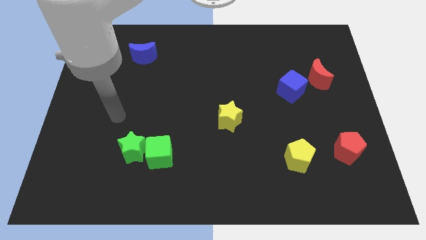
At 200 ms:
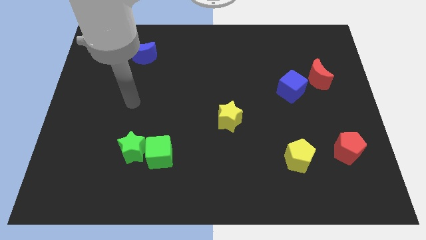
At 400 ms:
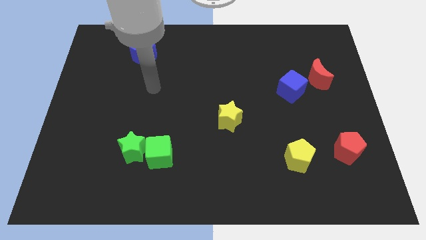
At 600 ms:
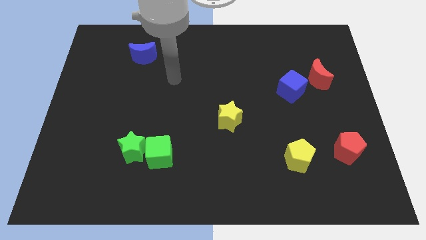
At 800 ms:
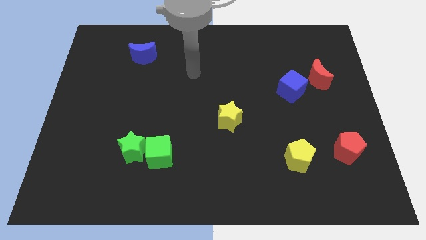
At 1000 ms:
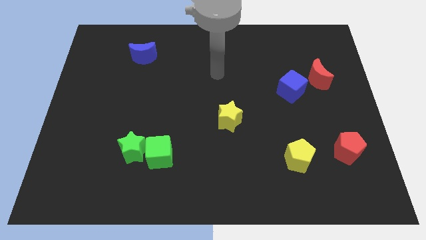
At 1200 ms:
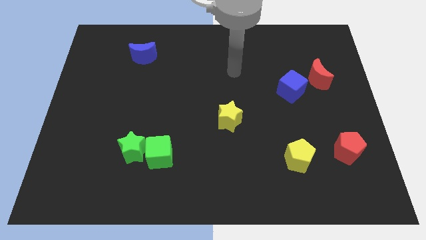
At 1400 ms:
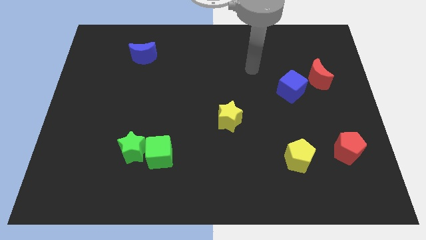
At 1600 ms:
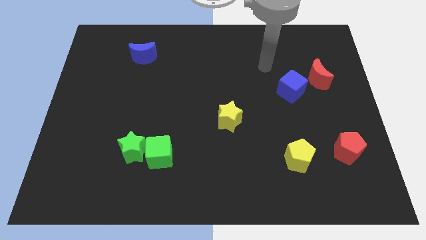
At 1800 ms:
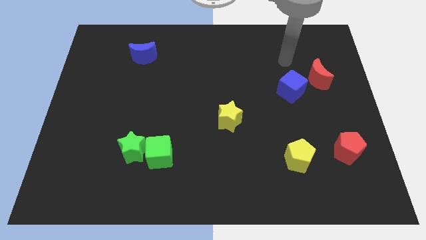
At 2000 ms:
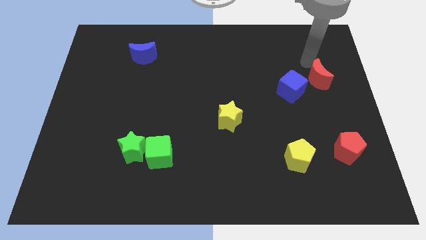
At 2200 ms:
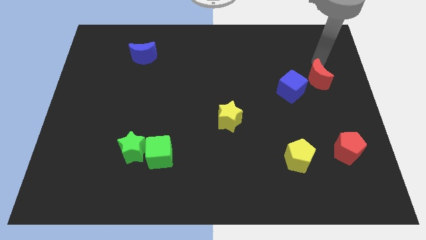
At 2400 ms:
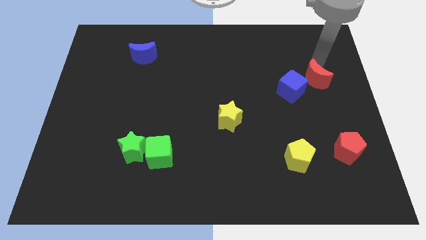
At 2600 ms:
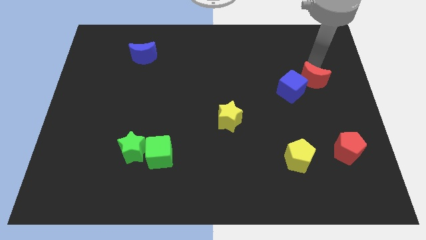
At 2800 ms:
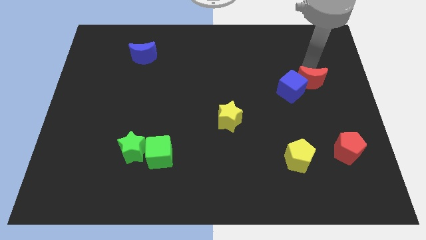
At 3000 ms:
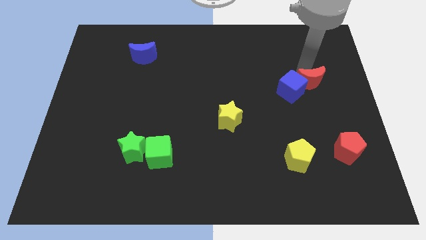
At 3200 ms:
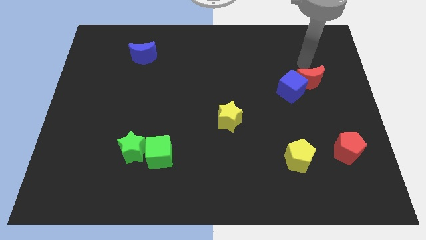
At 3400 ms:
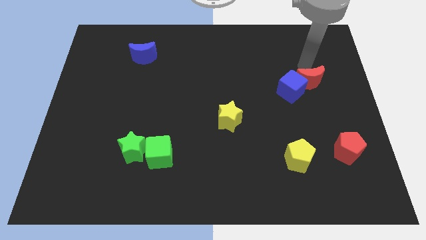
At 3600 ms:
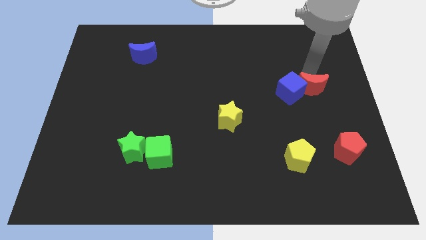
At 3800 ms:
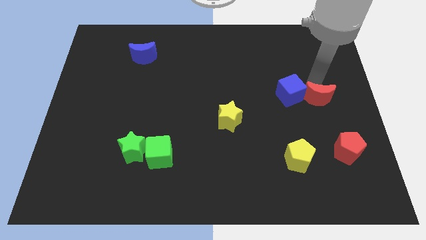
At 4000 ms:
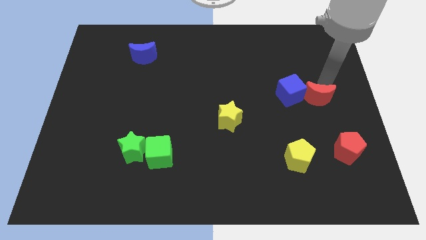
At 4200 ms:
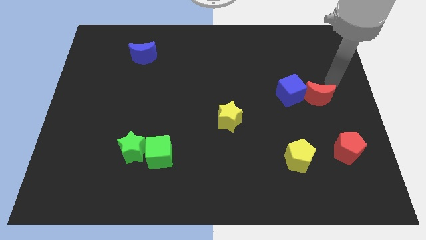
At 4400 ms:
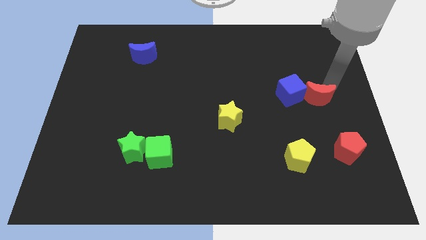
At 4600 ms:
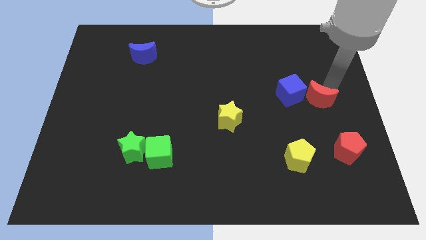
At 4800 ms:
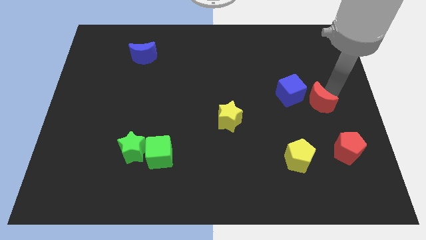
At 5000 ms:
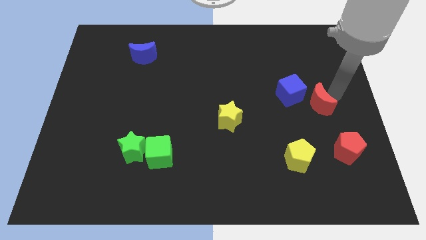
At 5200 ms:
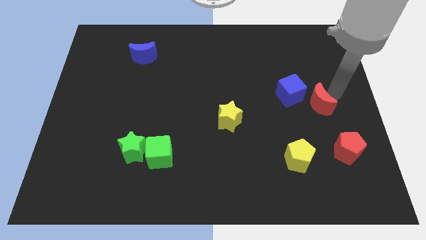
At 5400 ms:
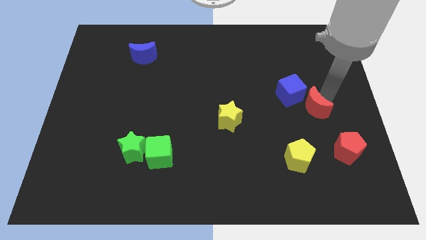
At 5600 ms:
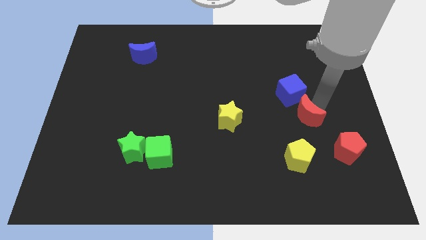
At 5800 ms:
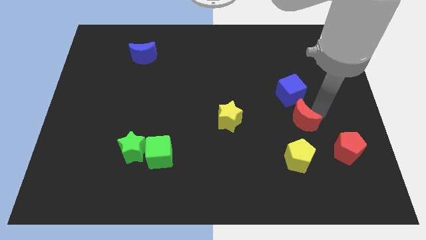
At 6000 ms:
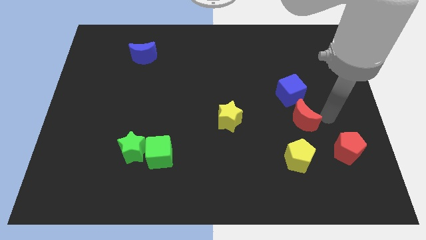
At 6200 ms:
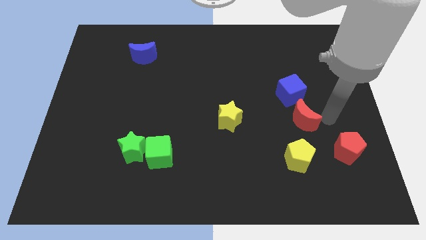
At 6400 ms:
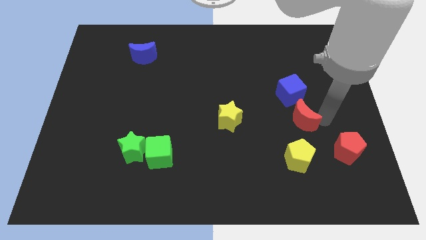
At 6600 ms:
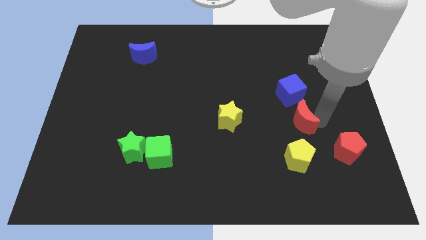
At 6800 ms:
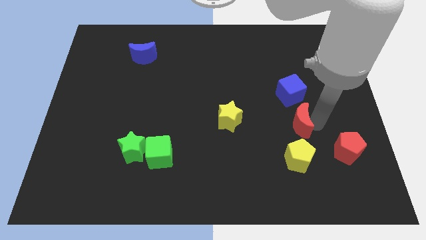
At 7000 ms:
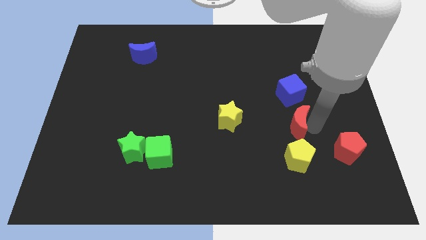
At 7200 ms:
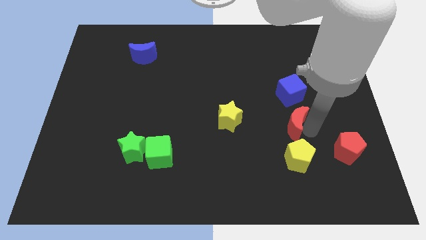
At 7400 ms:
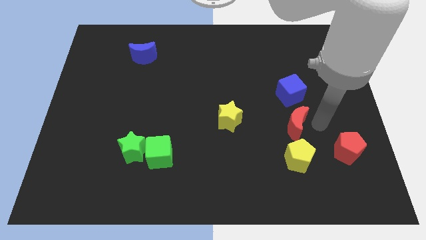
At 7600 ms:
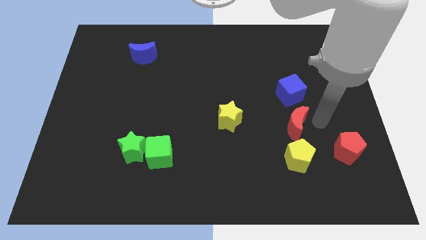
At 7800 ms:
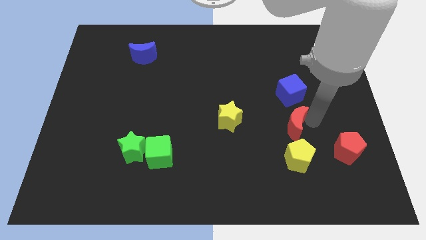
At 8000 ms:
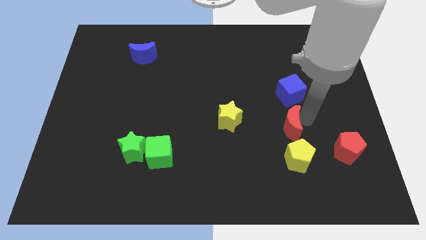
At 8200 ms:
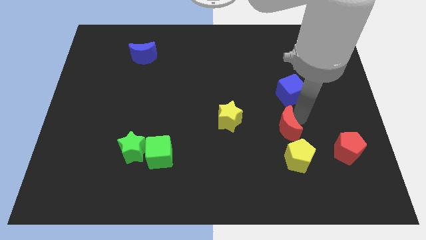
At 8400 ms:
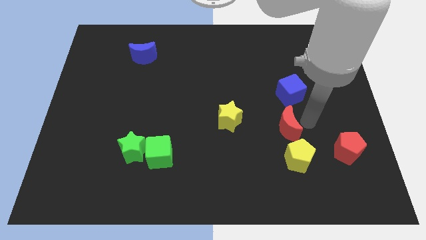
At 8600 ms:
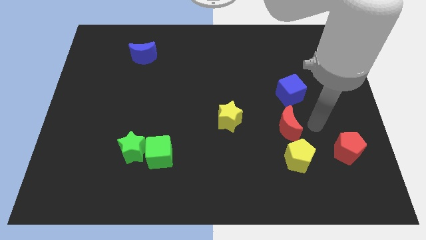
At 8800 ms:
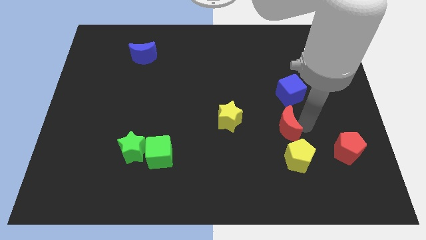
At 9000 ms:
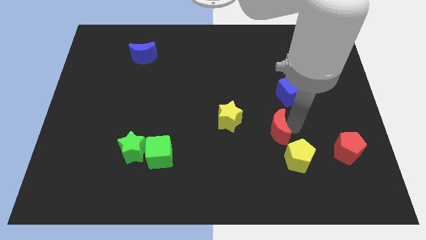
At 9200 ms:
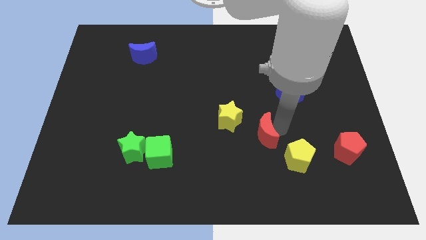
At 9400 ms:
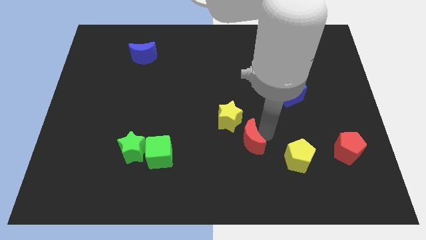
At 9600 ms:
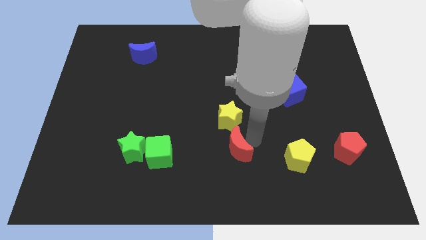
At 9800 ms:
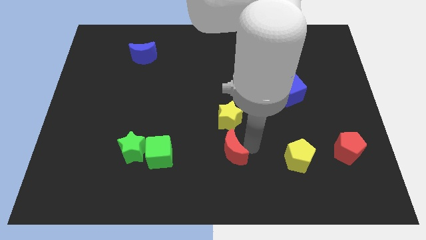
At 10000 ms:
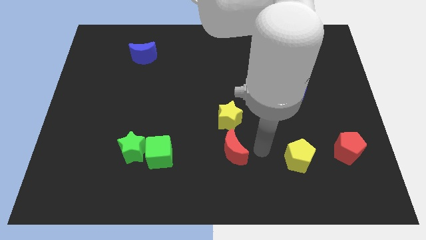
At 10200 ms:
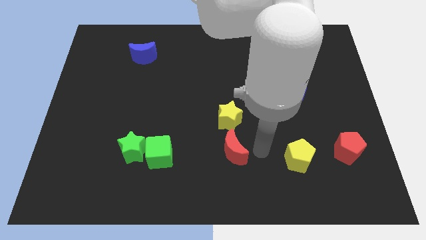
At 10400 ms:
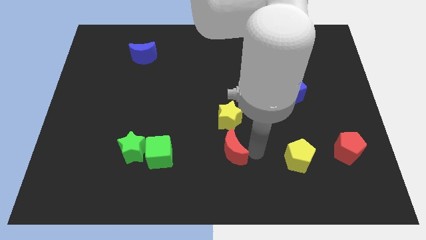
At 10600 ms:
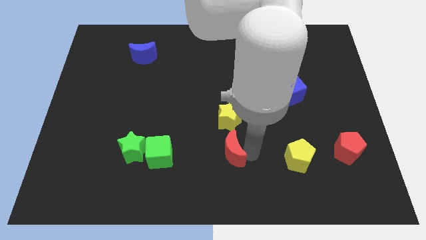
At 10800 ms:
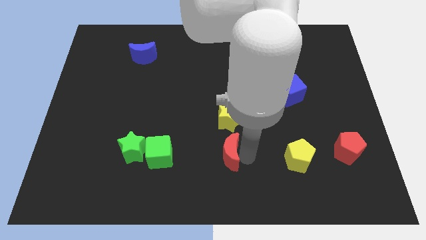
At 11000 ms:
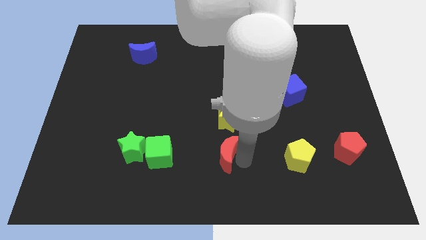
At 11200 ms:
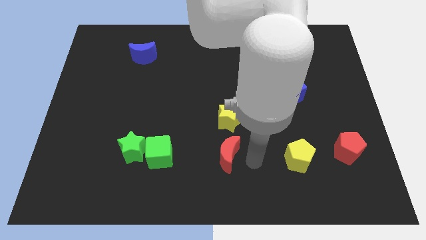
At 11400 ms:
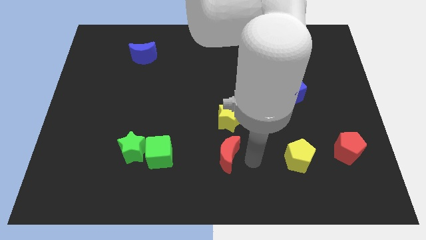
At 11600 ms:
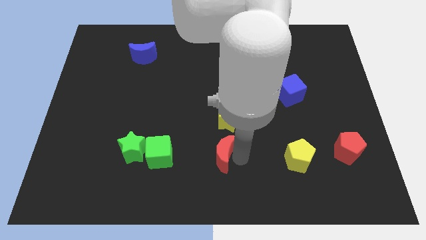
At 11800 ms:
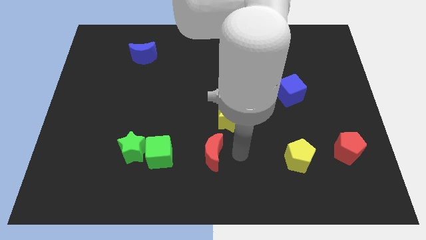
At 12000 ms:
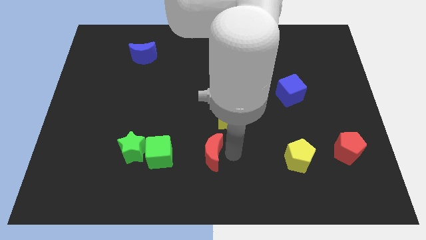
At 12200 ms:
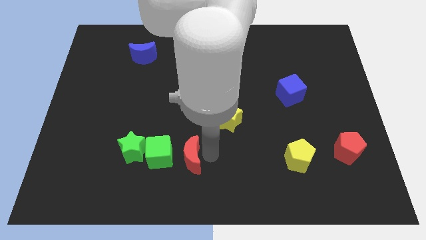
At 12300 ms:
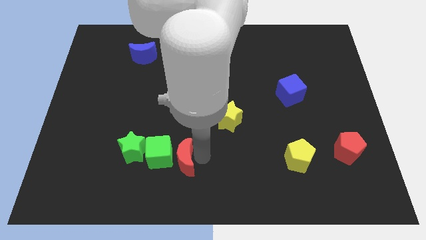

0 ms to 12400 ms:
put the red moon next to the green cube

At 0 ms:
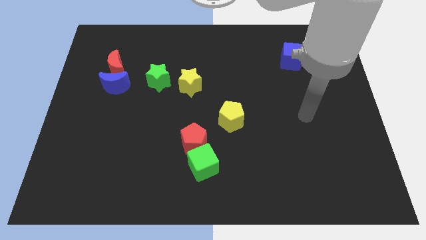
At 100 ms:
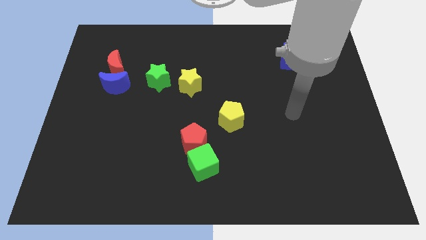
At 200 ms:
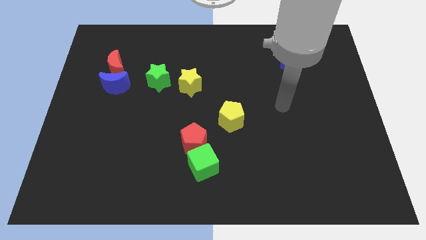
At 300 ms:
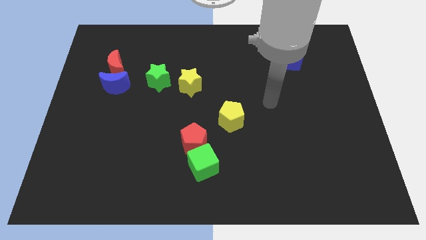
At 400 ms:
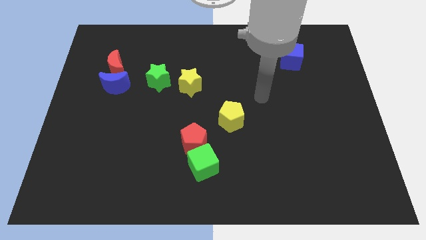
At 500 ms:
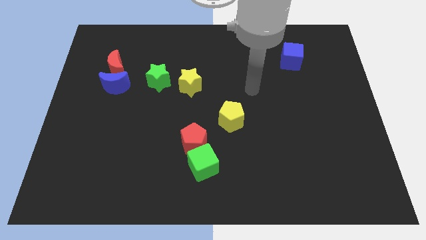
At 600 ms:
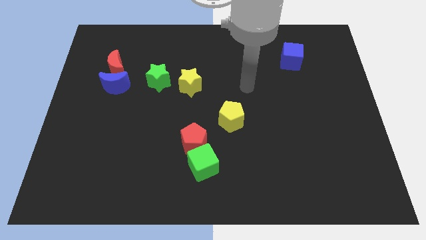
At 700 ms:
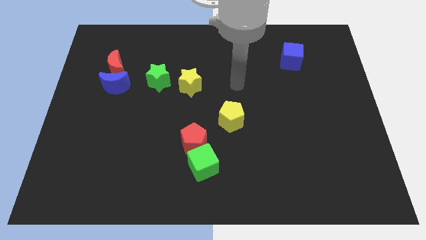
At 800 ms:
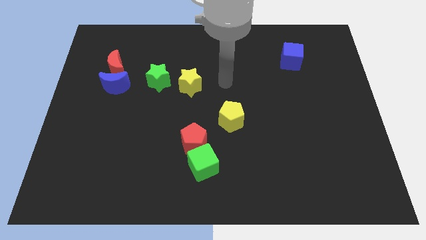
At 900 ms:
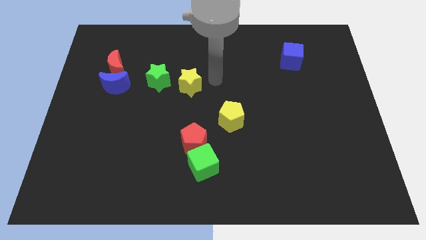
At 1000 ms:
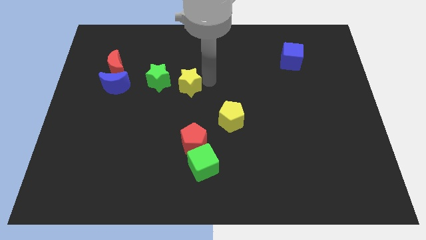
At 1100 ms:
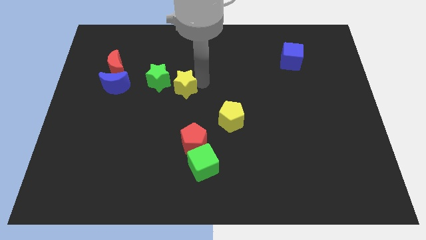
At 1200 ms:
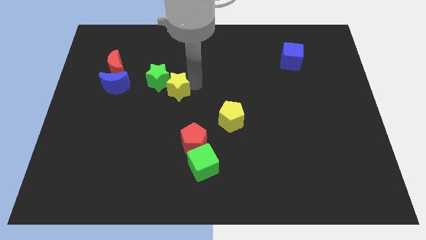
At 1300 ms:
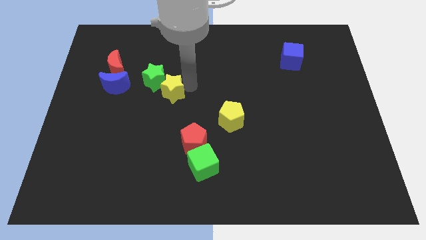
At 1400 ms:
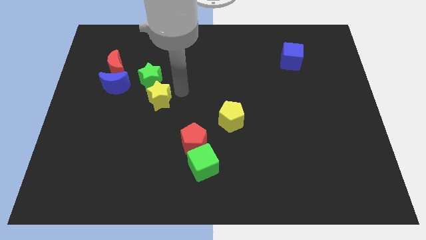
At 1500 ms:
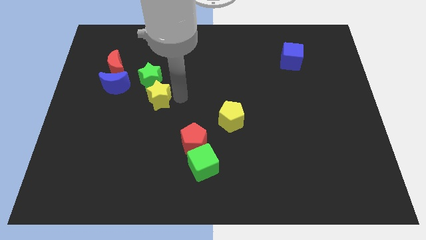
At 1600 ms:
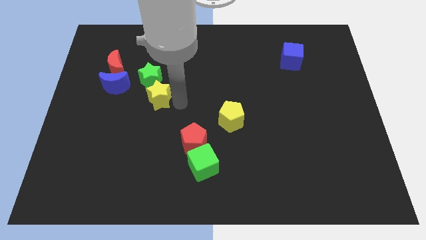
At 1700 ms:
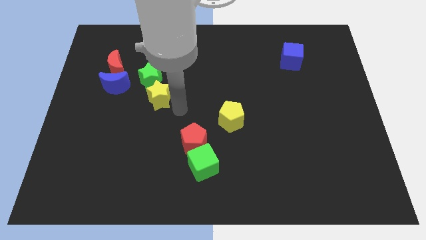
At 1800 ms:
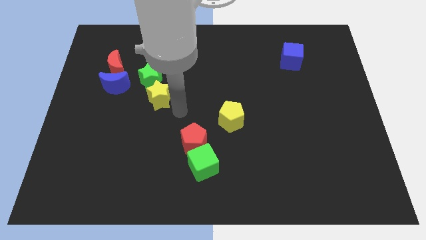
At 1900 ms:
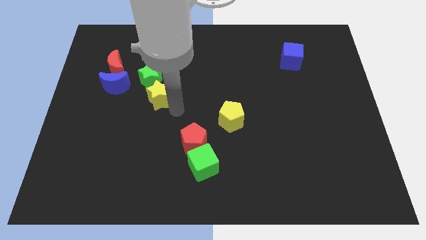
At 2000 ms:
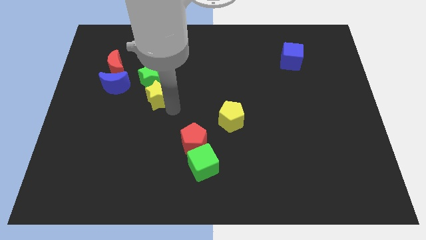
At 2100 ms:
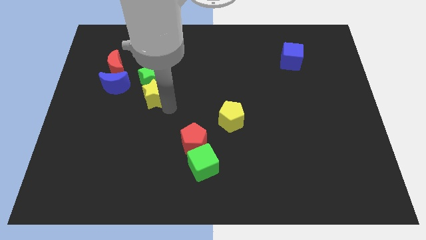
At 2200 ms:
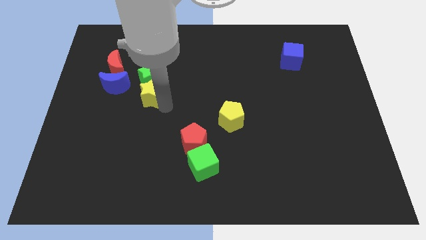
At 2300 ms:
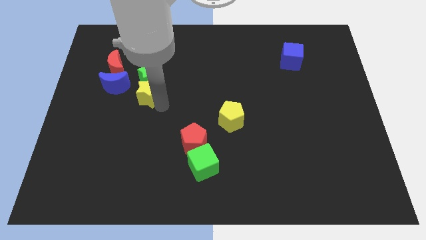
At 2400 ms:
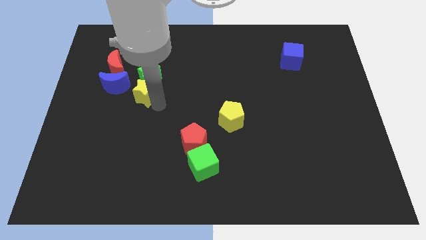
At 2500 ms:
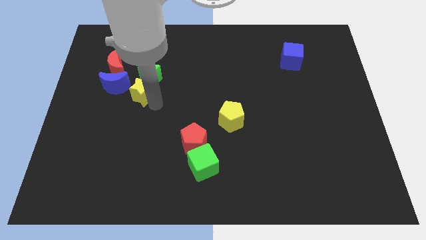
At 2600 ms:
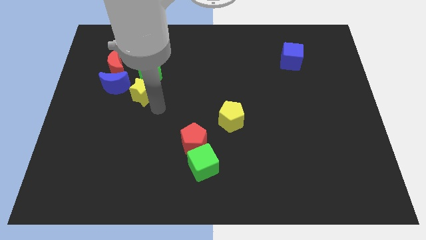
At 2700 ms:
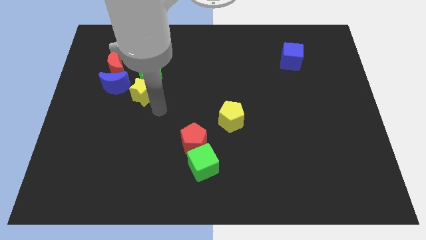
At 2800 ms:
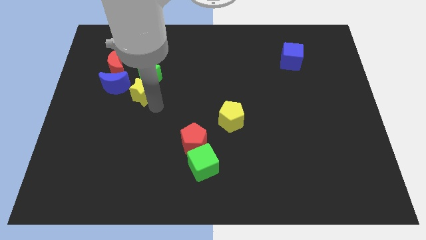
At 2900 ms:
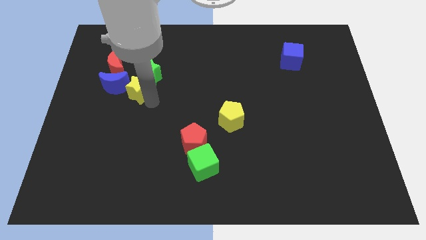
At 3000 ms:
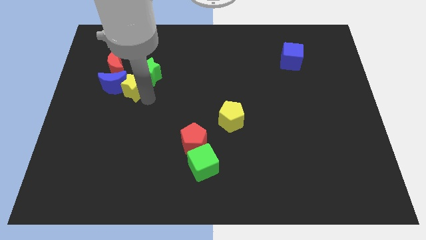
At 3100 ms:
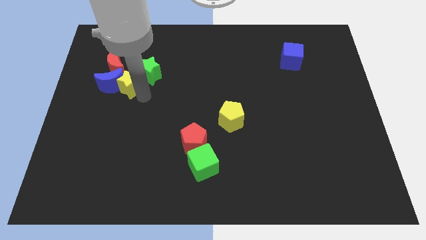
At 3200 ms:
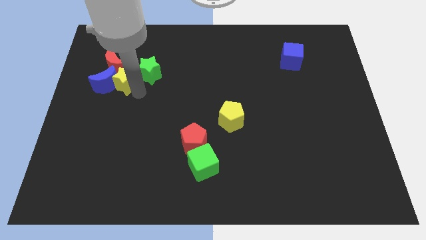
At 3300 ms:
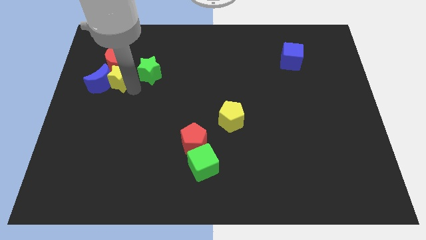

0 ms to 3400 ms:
put the yellow star close to the red moon
